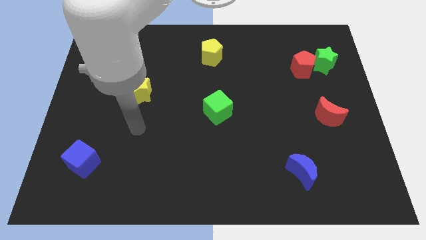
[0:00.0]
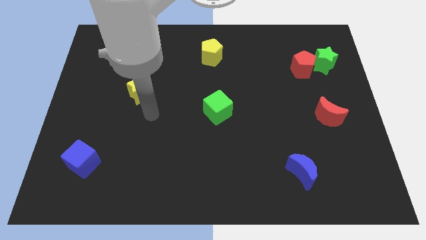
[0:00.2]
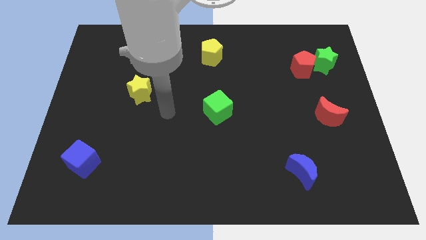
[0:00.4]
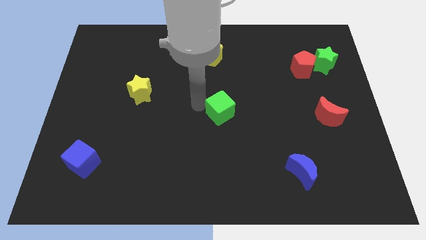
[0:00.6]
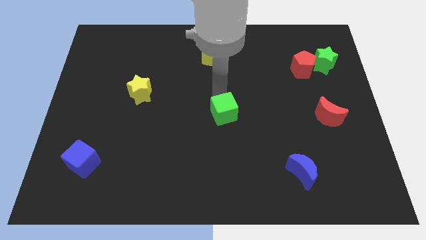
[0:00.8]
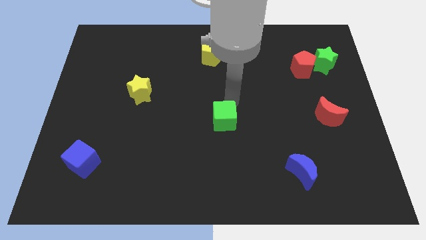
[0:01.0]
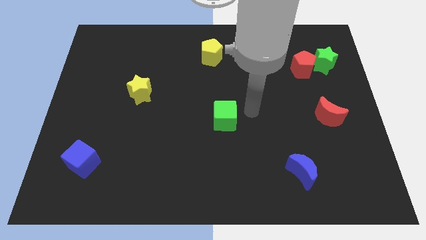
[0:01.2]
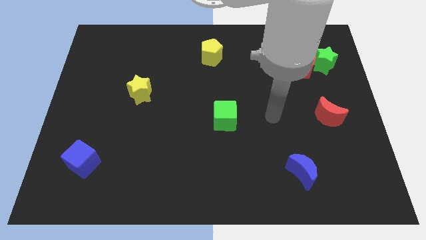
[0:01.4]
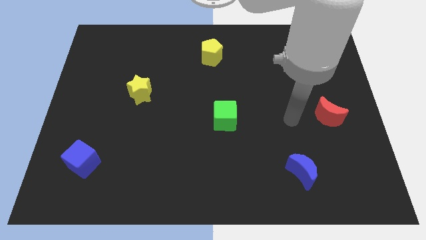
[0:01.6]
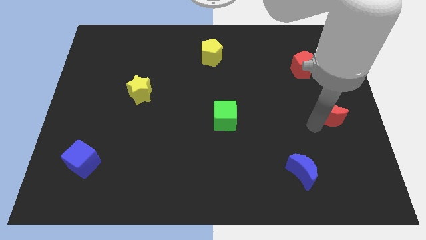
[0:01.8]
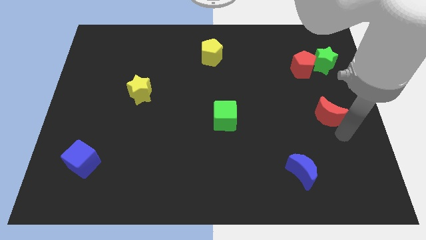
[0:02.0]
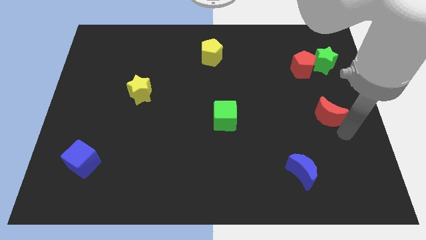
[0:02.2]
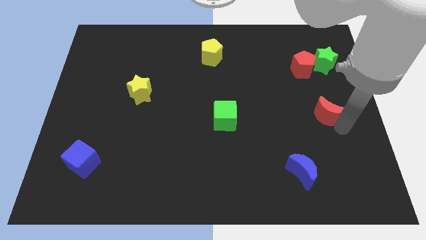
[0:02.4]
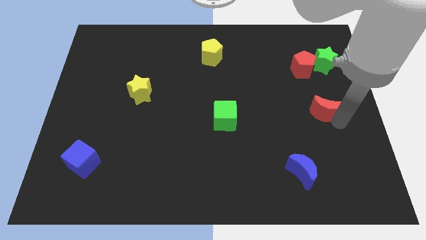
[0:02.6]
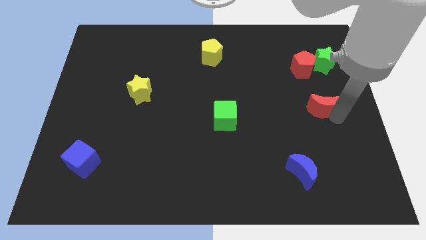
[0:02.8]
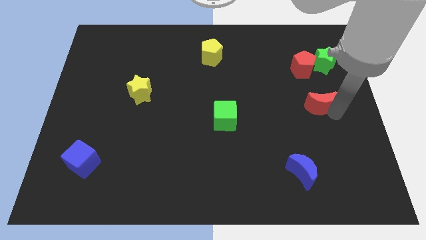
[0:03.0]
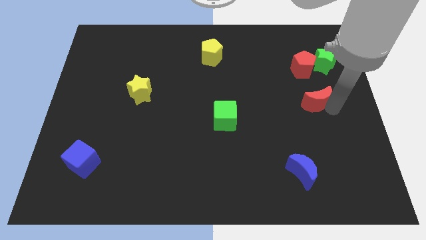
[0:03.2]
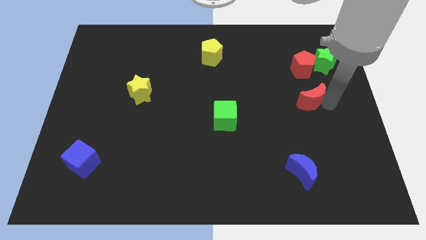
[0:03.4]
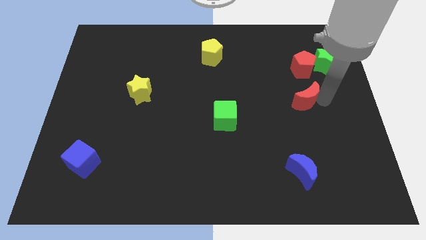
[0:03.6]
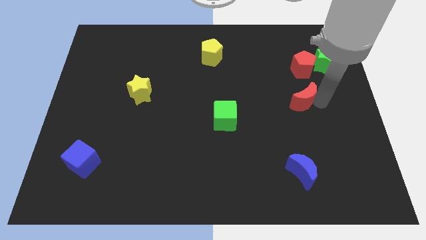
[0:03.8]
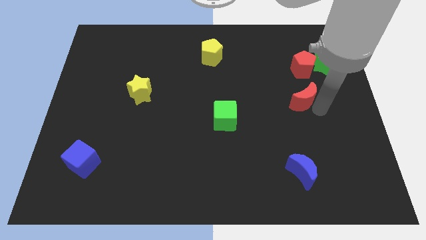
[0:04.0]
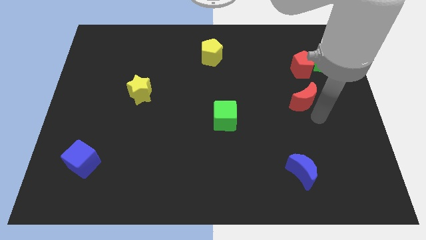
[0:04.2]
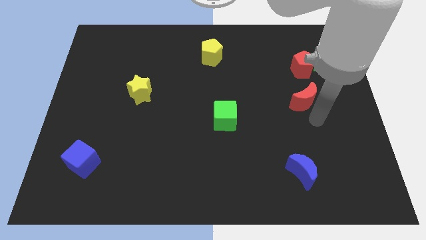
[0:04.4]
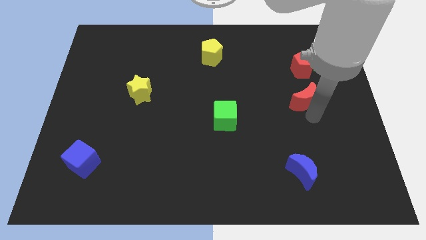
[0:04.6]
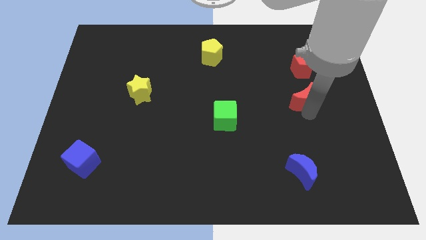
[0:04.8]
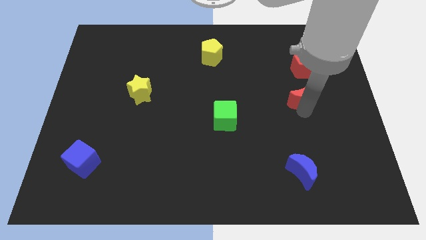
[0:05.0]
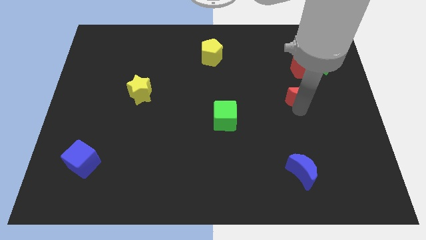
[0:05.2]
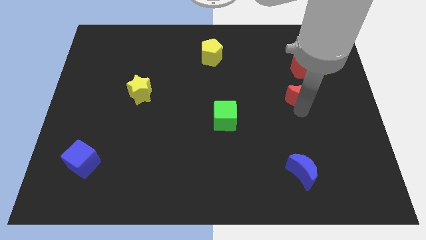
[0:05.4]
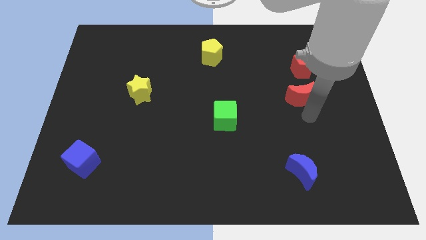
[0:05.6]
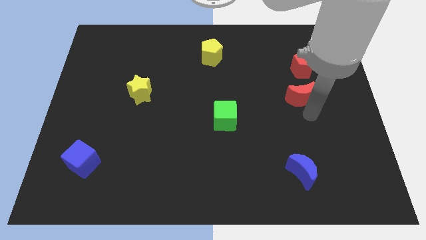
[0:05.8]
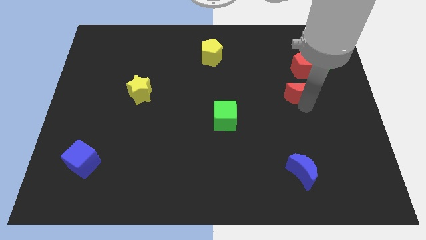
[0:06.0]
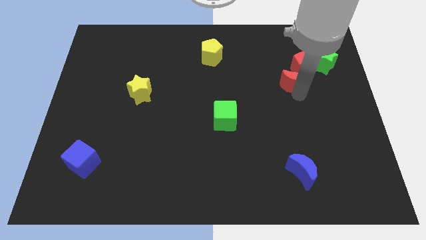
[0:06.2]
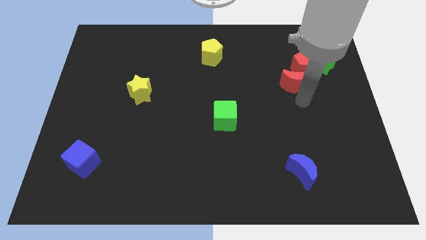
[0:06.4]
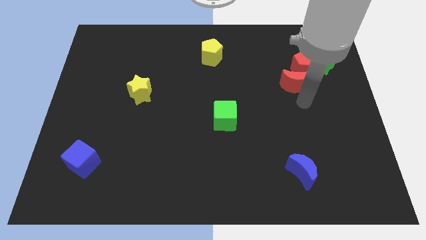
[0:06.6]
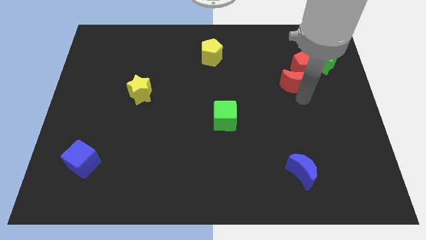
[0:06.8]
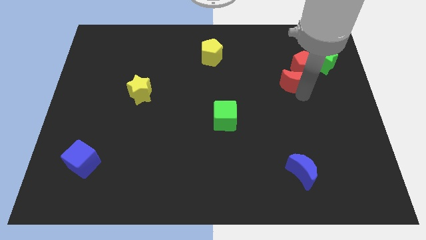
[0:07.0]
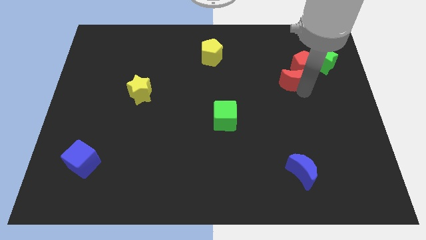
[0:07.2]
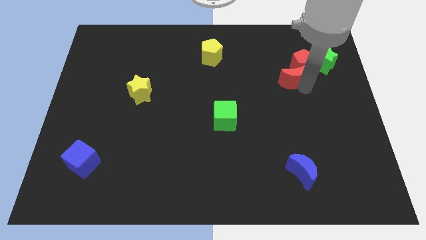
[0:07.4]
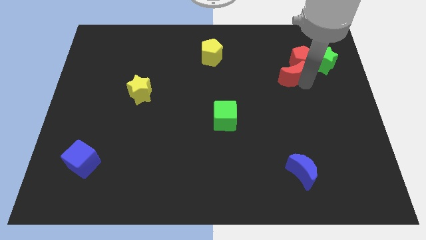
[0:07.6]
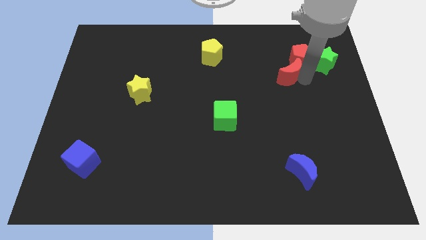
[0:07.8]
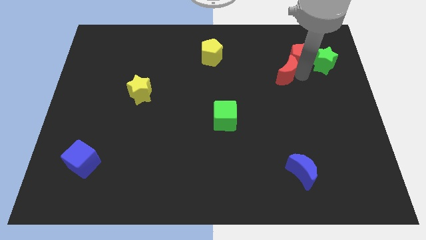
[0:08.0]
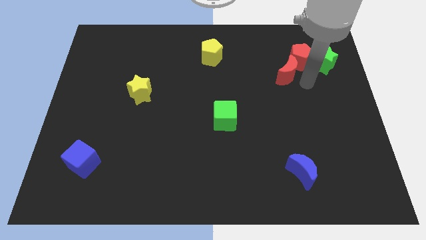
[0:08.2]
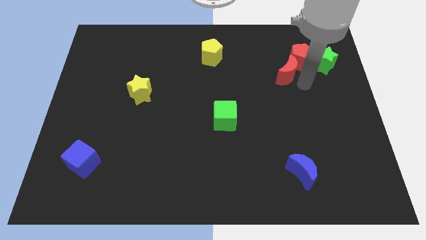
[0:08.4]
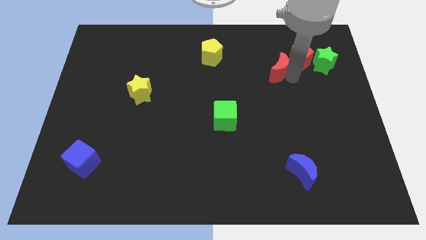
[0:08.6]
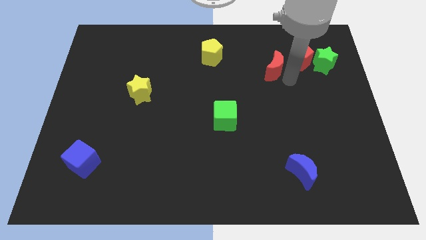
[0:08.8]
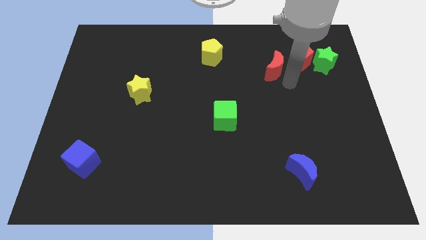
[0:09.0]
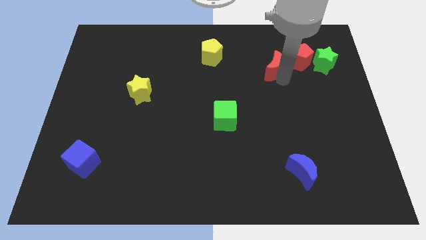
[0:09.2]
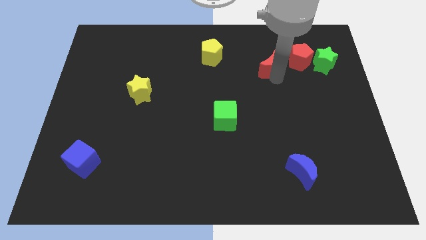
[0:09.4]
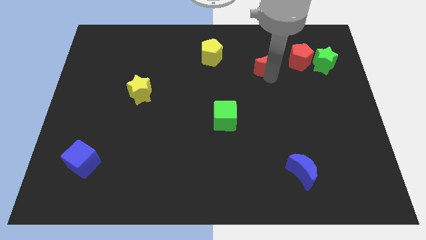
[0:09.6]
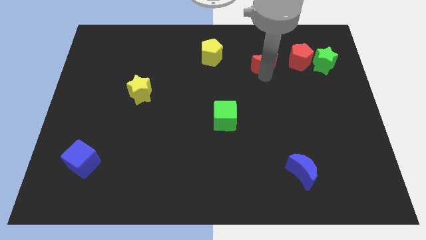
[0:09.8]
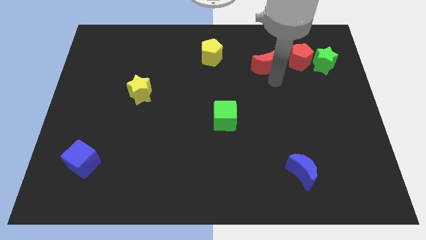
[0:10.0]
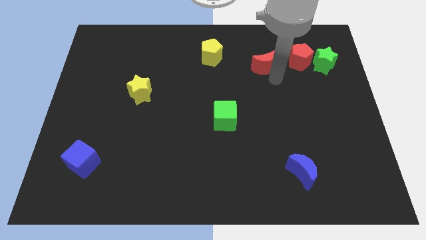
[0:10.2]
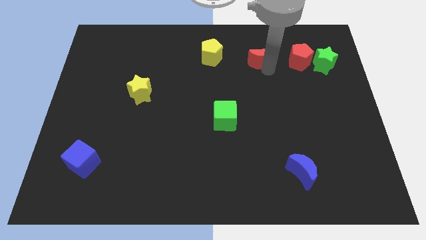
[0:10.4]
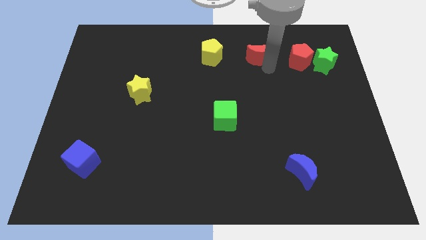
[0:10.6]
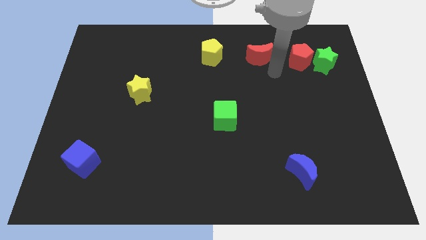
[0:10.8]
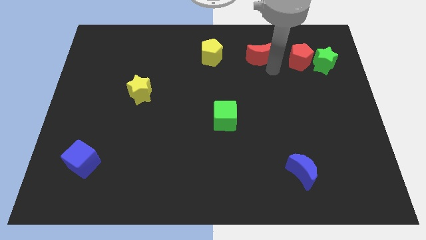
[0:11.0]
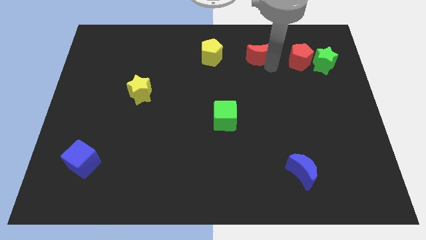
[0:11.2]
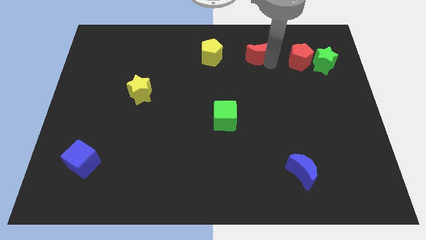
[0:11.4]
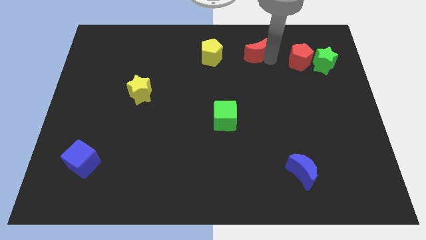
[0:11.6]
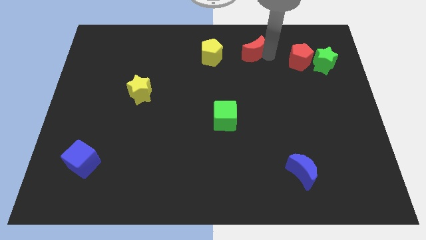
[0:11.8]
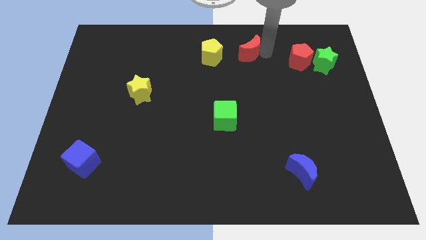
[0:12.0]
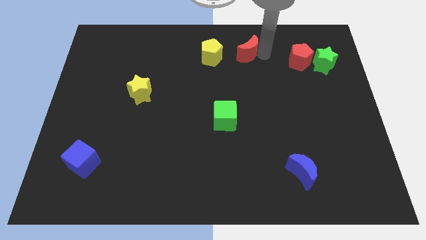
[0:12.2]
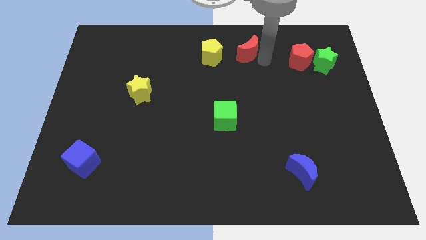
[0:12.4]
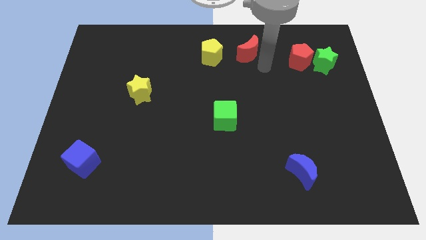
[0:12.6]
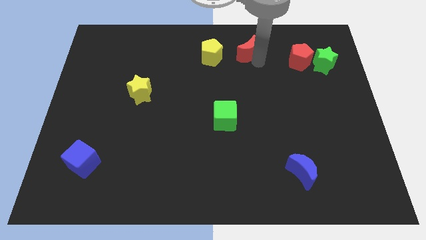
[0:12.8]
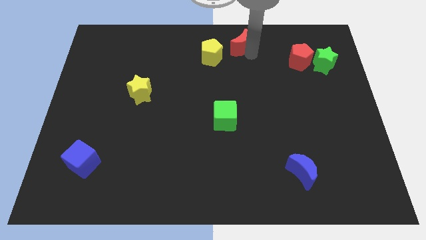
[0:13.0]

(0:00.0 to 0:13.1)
move the red moon to the top side

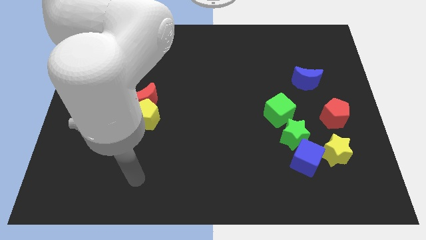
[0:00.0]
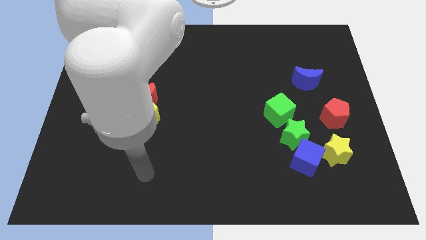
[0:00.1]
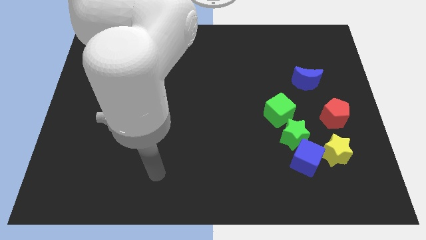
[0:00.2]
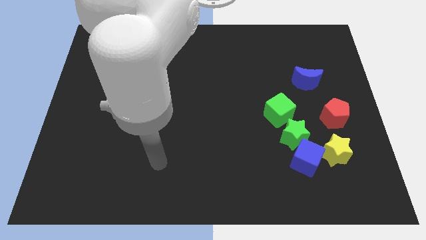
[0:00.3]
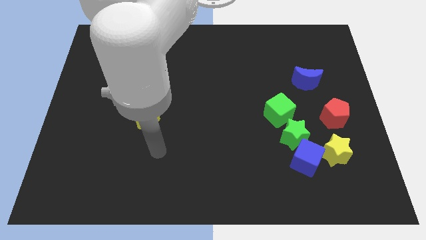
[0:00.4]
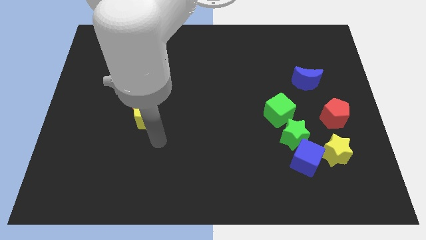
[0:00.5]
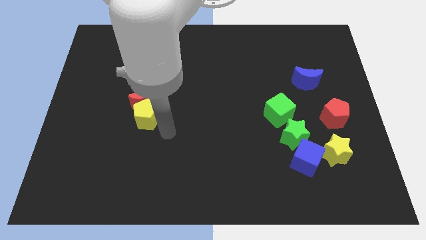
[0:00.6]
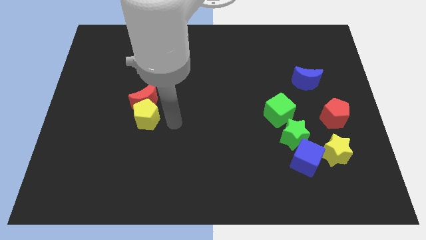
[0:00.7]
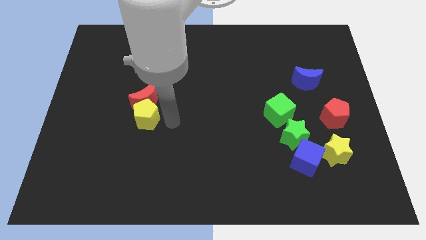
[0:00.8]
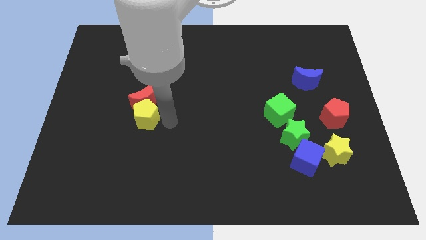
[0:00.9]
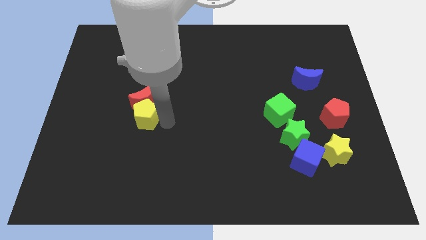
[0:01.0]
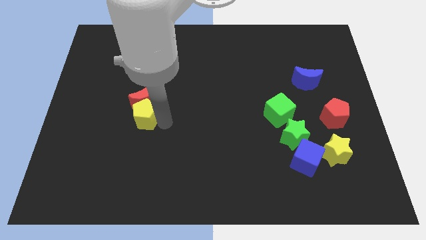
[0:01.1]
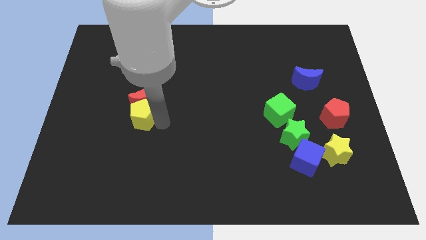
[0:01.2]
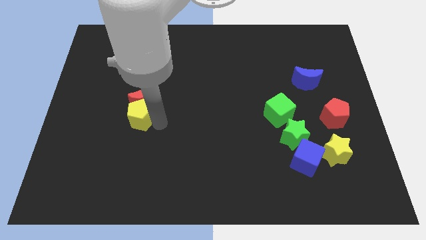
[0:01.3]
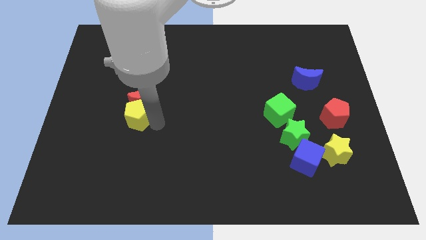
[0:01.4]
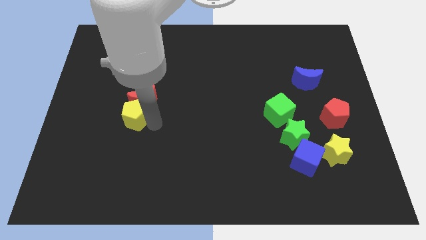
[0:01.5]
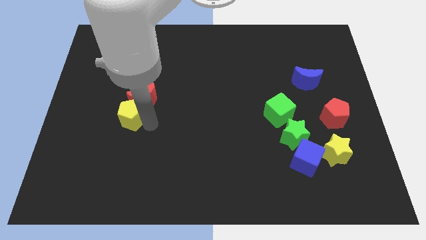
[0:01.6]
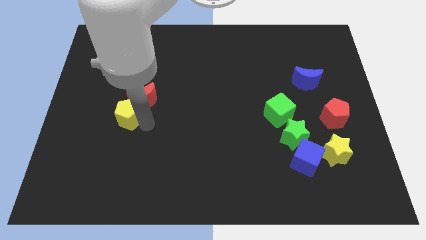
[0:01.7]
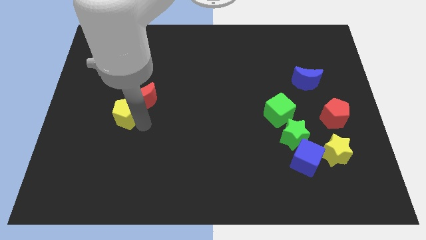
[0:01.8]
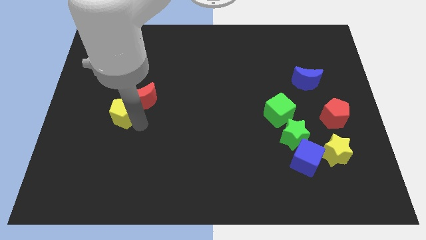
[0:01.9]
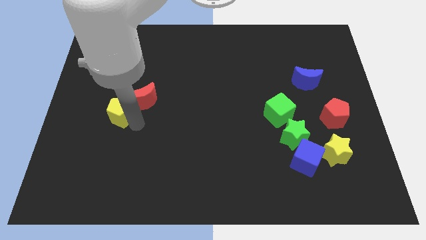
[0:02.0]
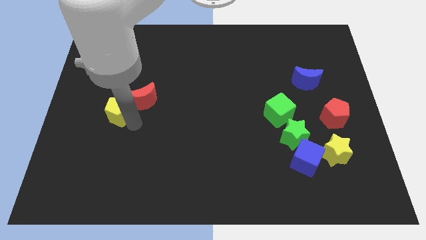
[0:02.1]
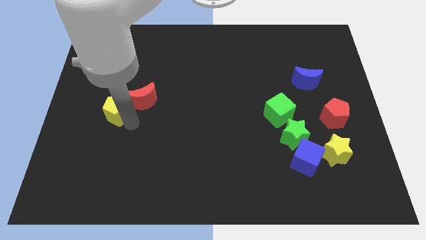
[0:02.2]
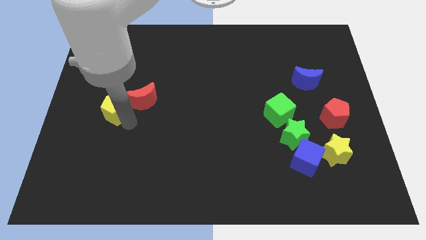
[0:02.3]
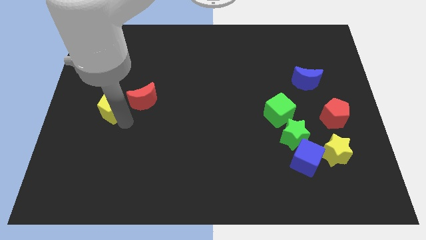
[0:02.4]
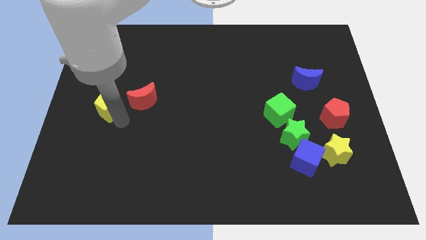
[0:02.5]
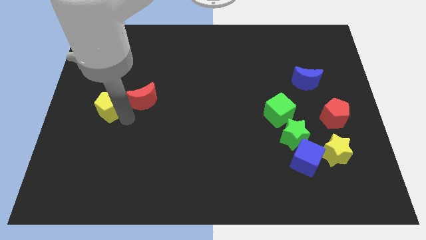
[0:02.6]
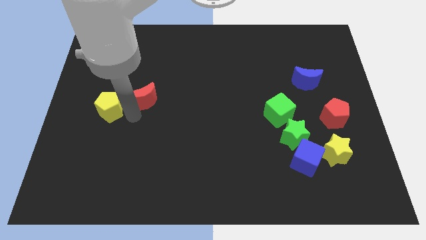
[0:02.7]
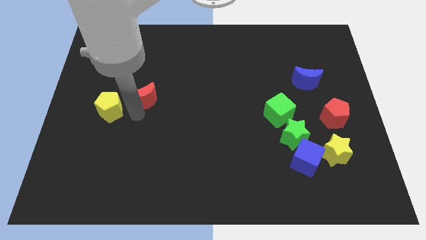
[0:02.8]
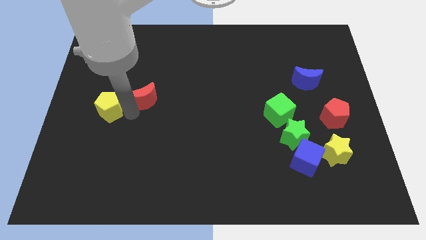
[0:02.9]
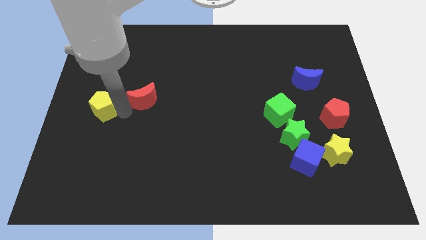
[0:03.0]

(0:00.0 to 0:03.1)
slide the yellow pentagon to the center left
